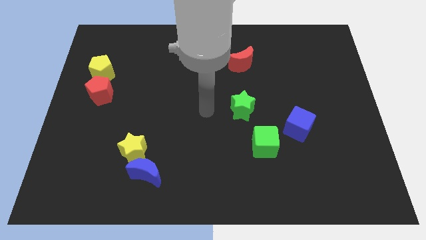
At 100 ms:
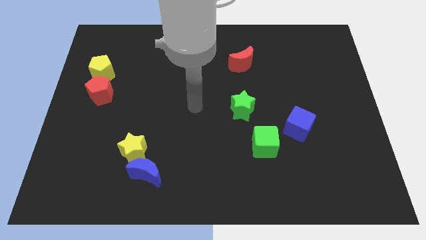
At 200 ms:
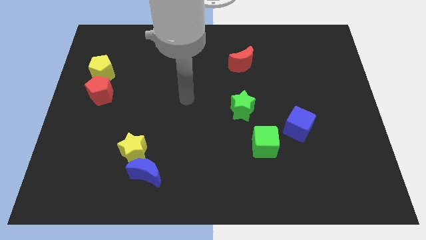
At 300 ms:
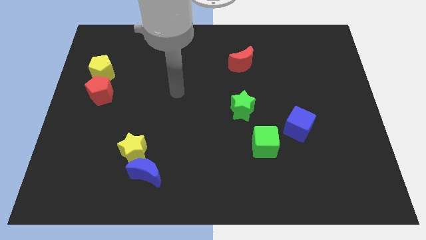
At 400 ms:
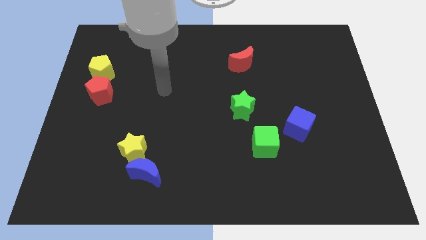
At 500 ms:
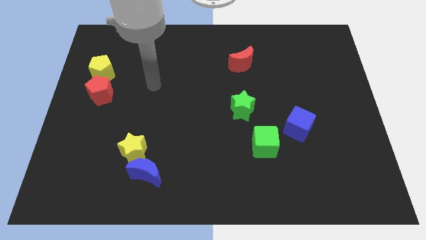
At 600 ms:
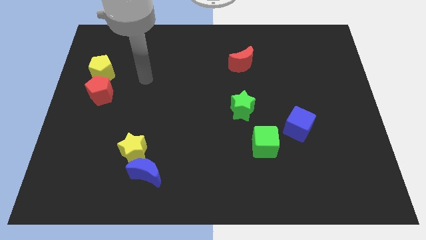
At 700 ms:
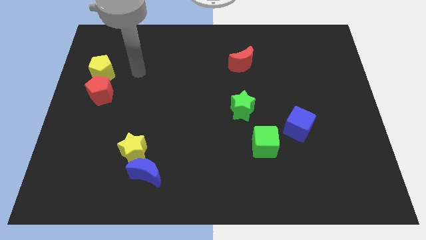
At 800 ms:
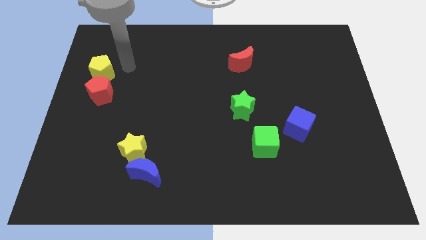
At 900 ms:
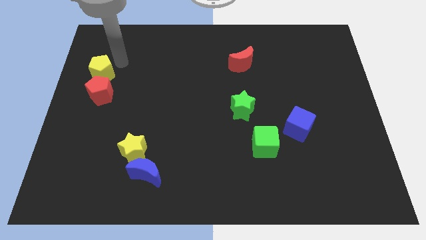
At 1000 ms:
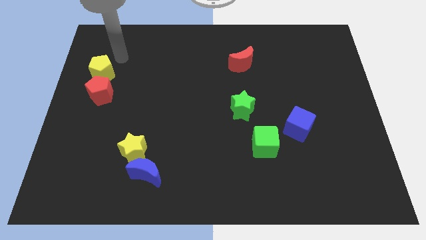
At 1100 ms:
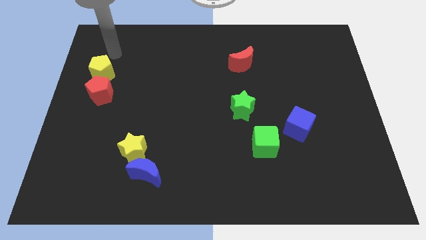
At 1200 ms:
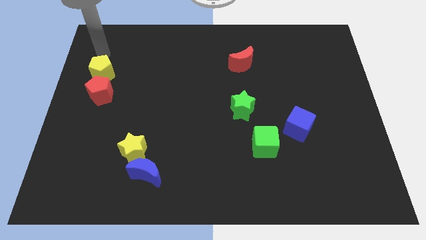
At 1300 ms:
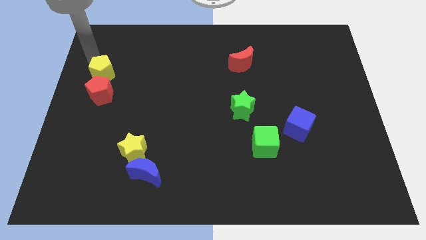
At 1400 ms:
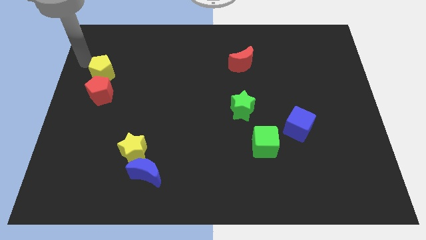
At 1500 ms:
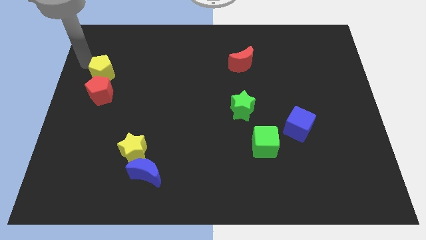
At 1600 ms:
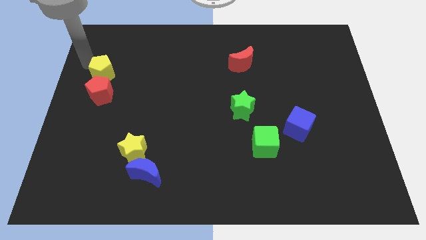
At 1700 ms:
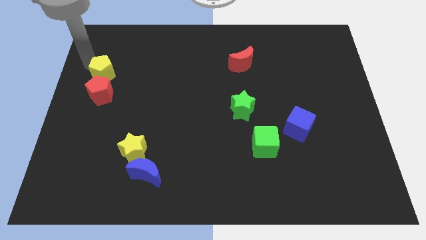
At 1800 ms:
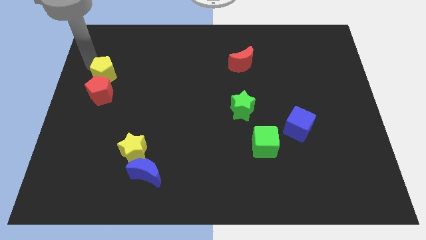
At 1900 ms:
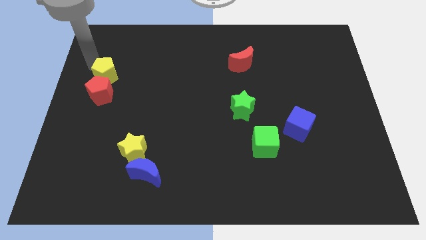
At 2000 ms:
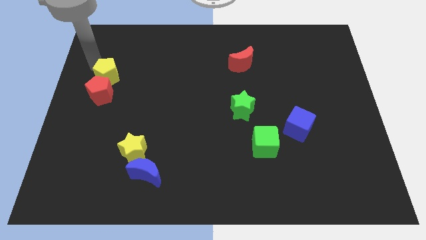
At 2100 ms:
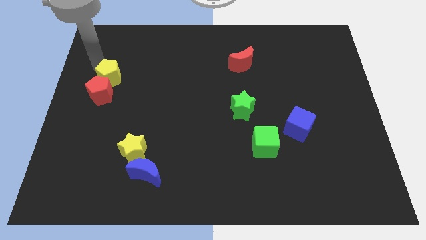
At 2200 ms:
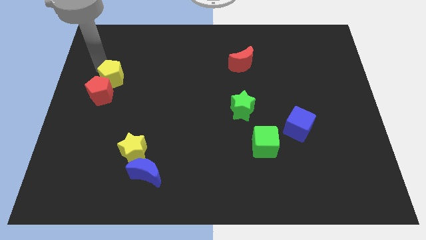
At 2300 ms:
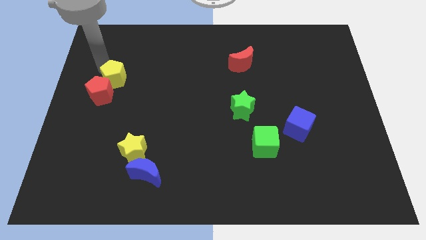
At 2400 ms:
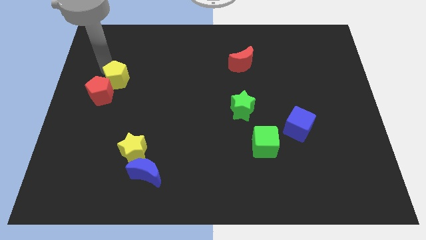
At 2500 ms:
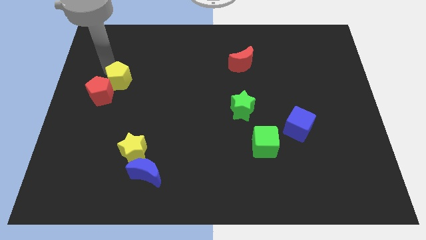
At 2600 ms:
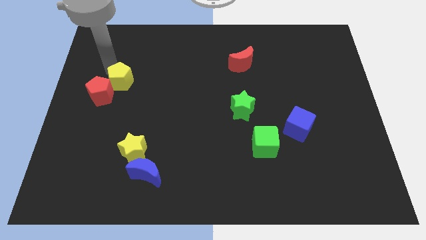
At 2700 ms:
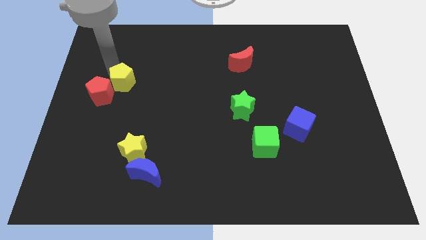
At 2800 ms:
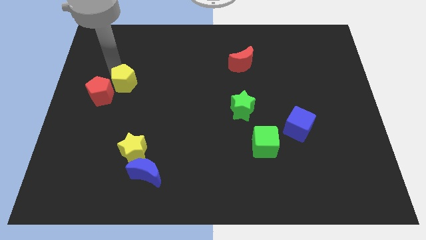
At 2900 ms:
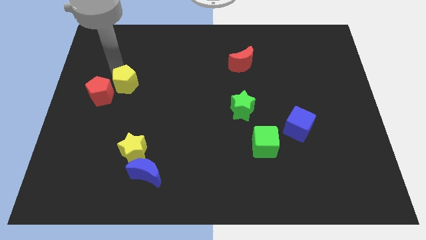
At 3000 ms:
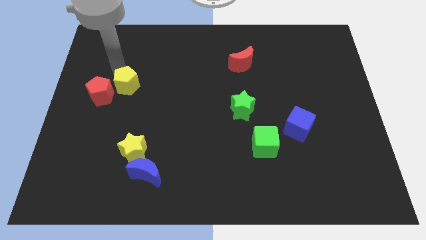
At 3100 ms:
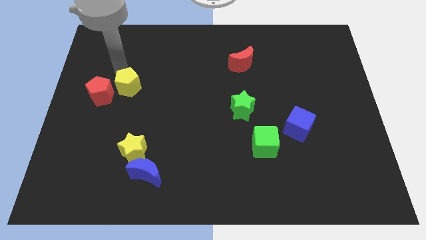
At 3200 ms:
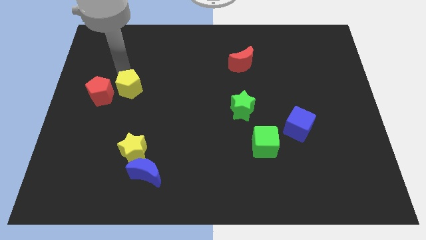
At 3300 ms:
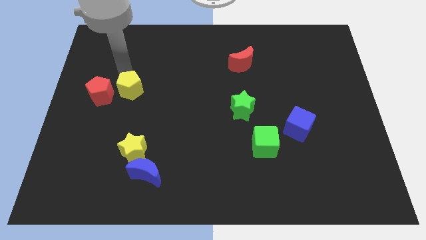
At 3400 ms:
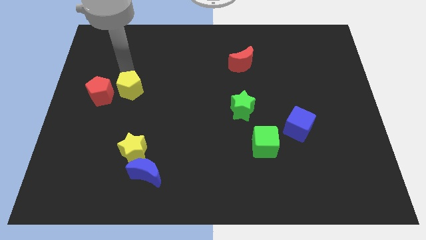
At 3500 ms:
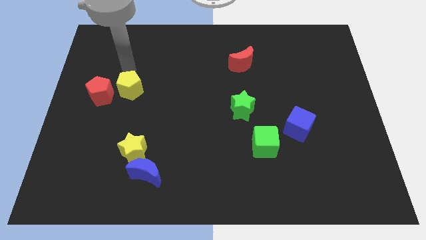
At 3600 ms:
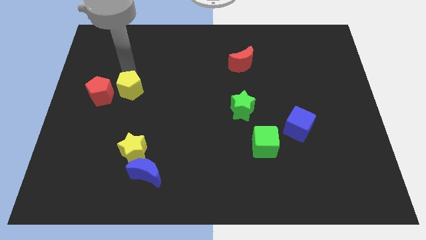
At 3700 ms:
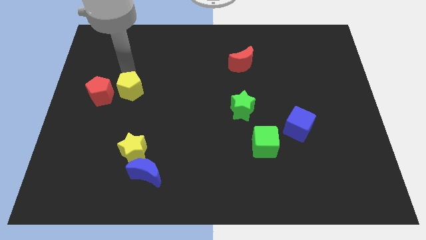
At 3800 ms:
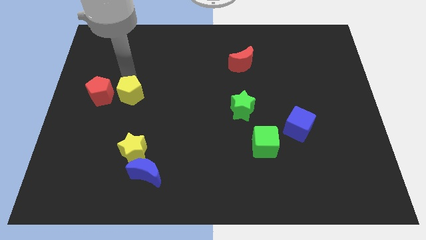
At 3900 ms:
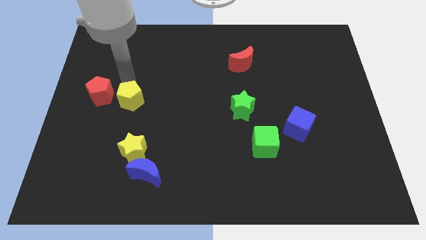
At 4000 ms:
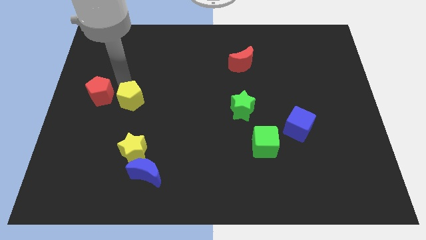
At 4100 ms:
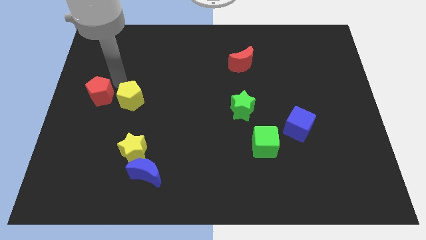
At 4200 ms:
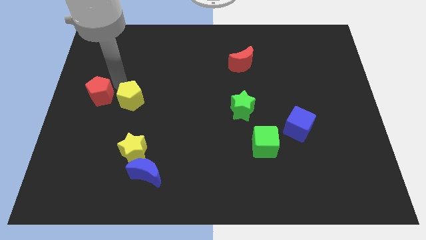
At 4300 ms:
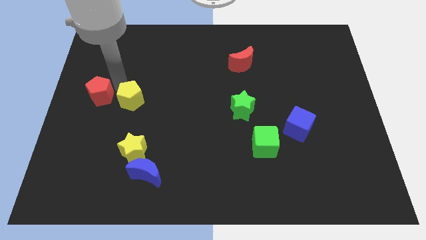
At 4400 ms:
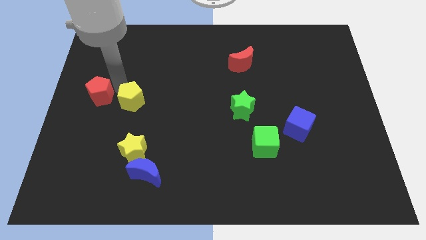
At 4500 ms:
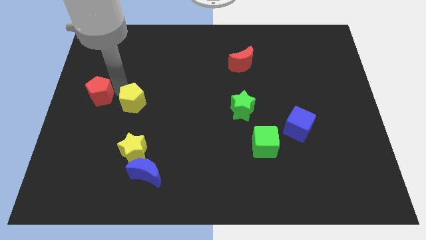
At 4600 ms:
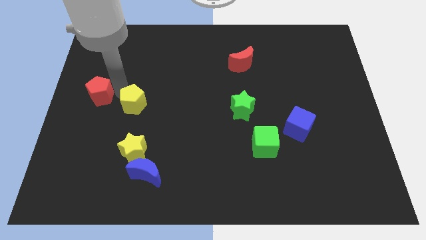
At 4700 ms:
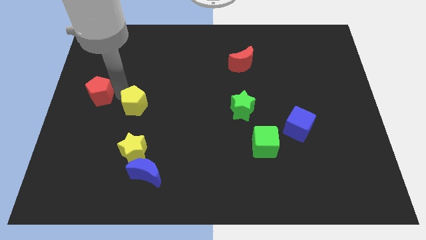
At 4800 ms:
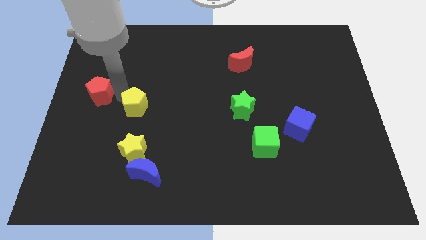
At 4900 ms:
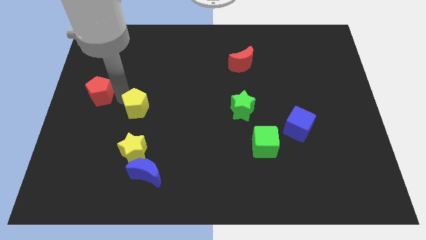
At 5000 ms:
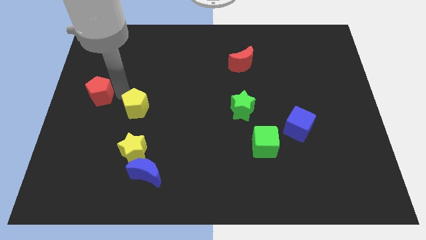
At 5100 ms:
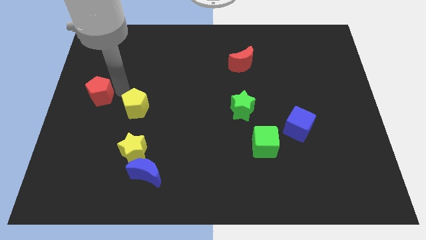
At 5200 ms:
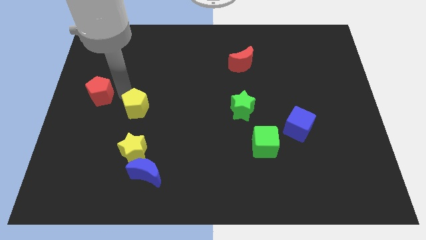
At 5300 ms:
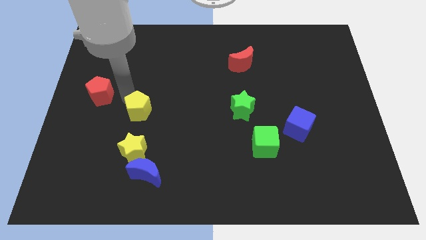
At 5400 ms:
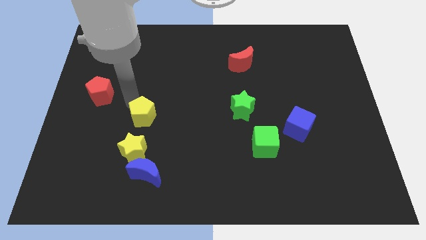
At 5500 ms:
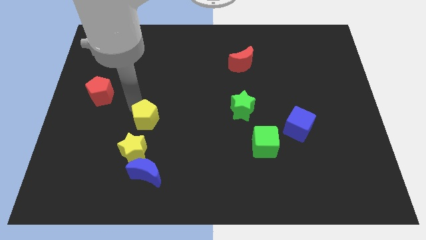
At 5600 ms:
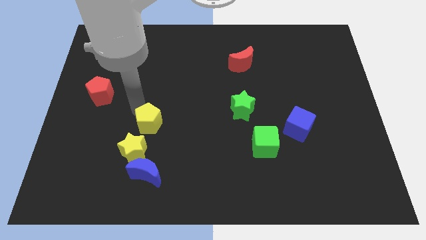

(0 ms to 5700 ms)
push the yellow pentagon downwards and right diagonally

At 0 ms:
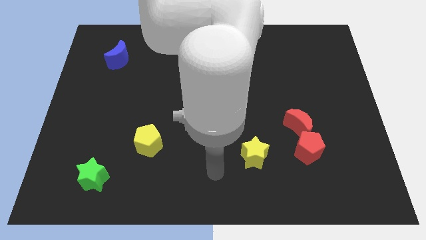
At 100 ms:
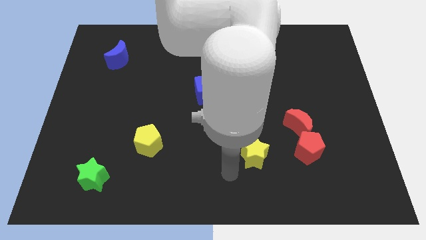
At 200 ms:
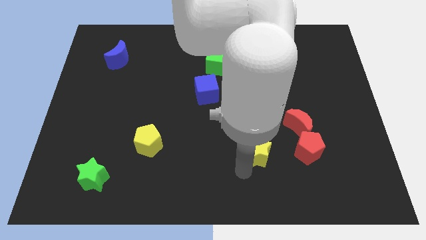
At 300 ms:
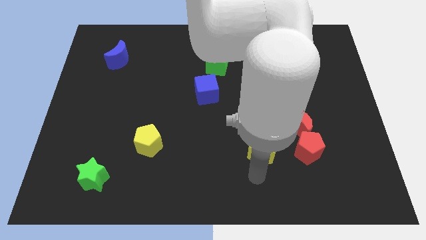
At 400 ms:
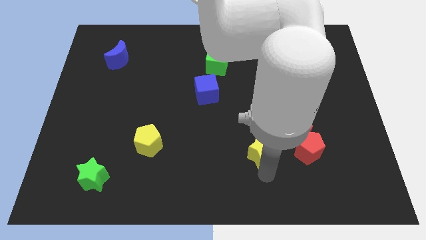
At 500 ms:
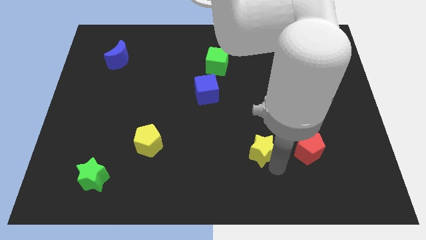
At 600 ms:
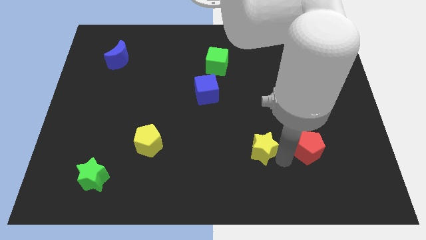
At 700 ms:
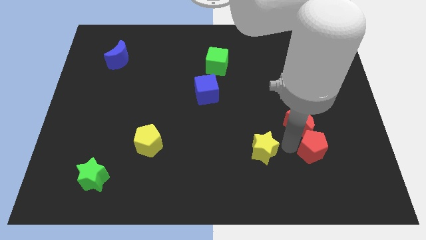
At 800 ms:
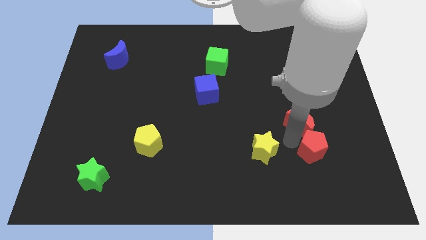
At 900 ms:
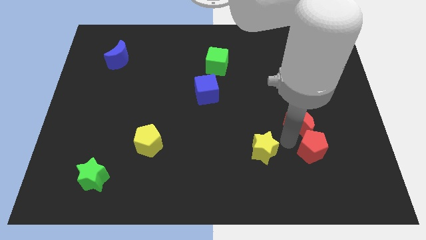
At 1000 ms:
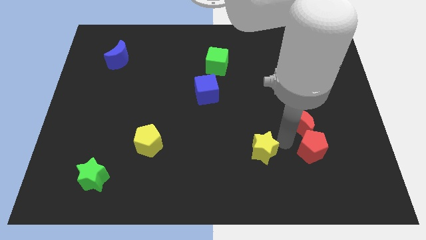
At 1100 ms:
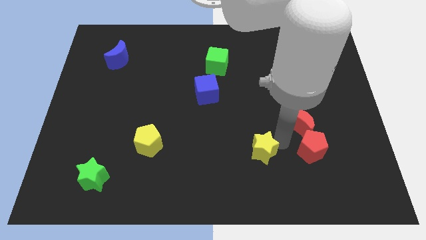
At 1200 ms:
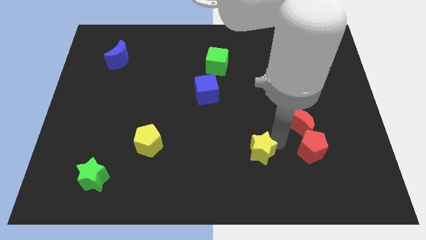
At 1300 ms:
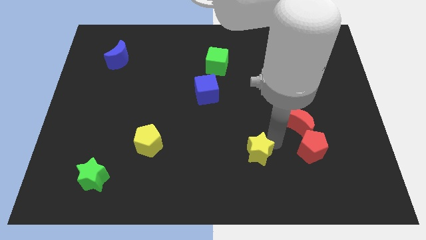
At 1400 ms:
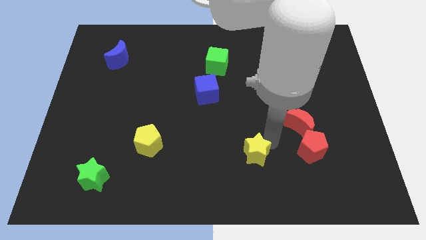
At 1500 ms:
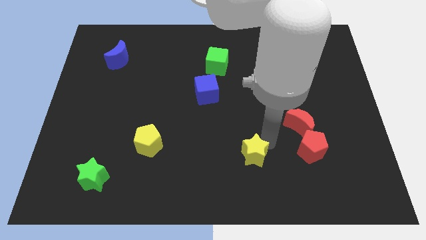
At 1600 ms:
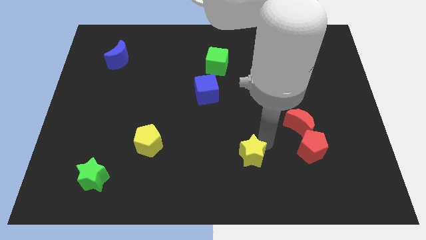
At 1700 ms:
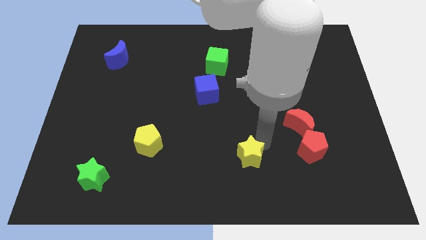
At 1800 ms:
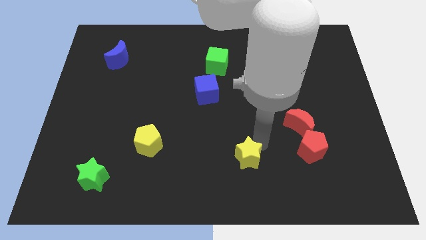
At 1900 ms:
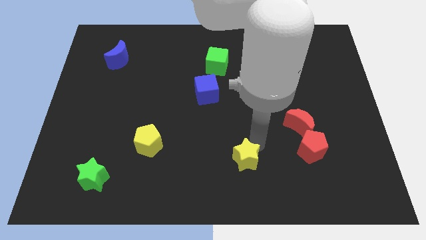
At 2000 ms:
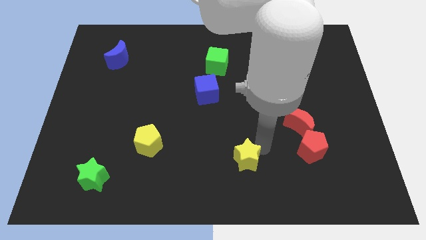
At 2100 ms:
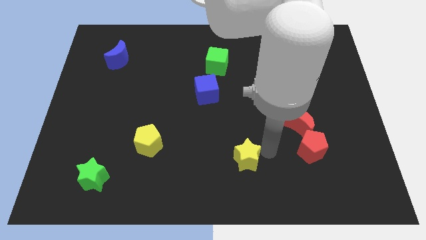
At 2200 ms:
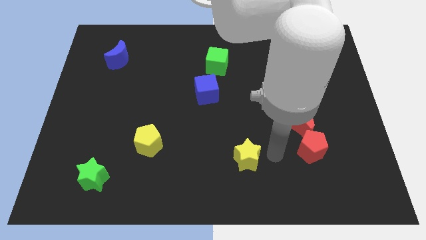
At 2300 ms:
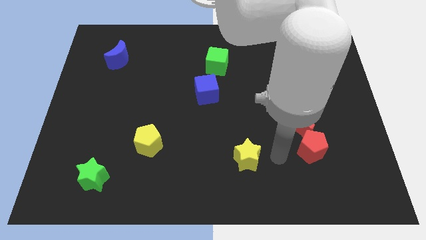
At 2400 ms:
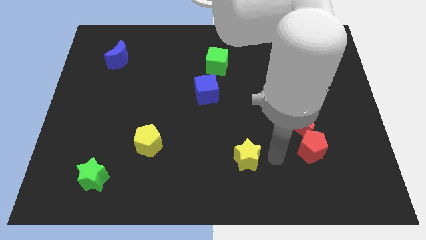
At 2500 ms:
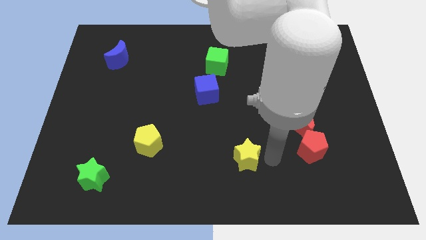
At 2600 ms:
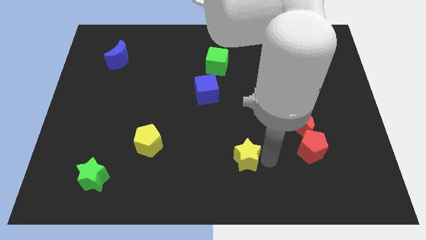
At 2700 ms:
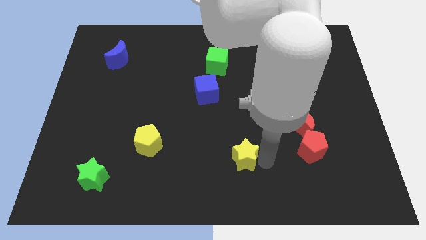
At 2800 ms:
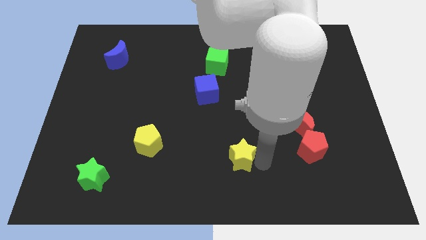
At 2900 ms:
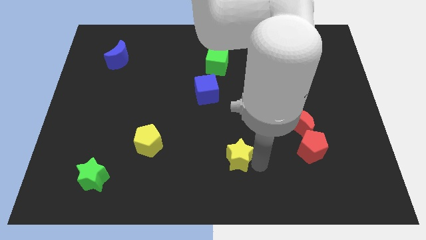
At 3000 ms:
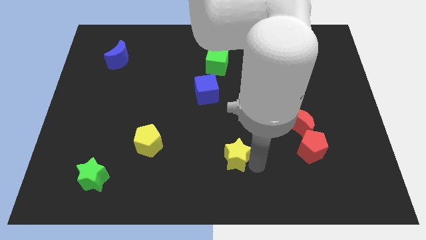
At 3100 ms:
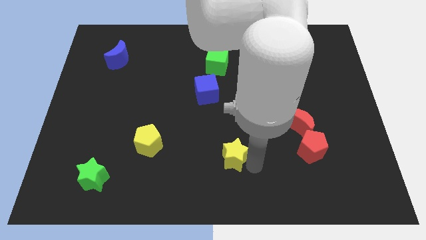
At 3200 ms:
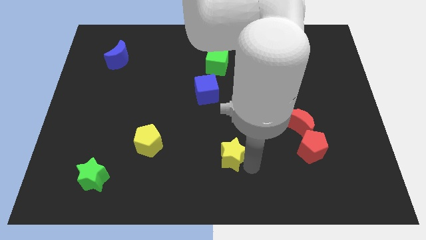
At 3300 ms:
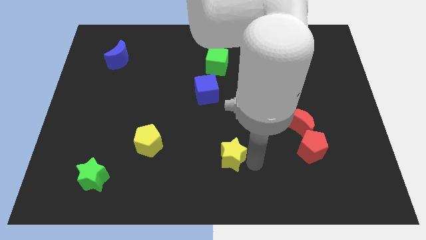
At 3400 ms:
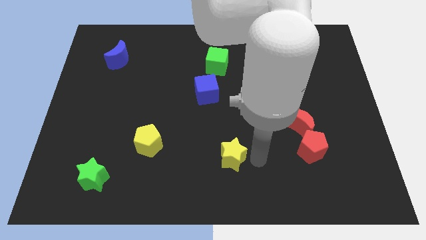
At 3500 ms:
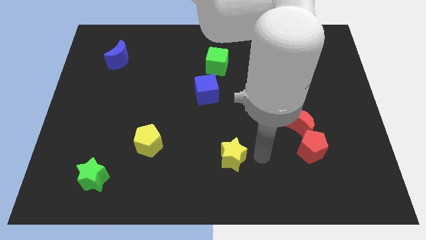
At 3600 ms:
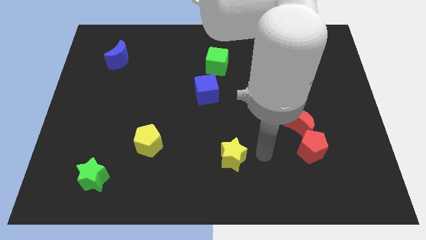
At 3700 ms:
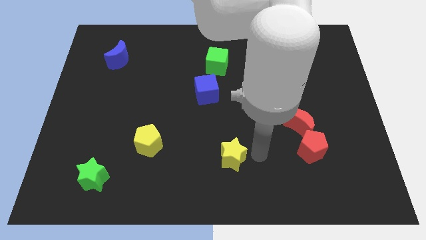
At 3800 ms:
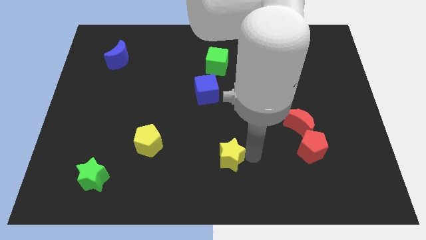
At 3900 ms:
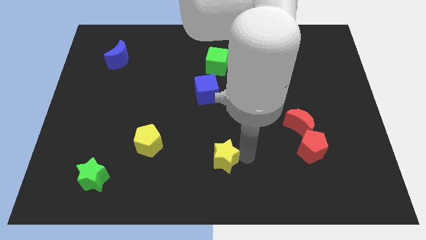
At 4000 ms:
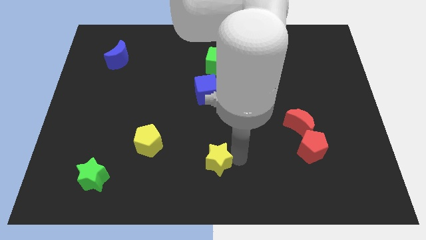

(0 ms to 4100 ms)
push the yellow star a little to the left
